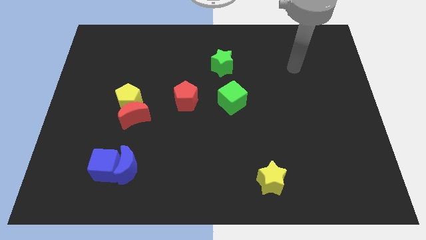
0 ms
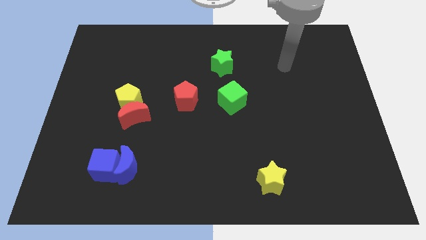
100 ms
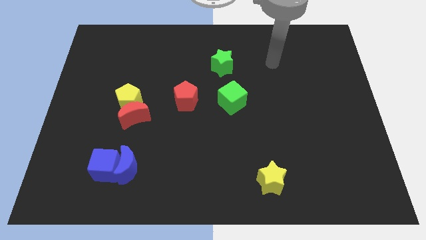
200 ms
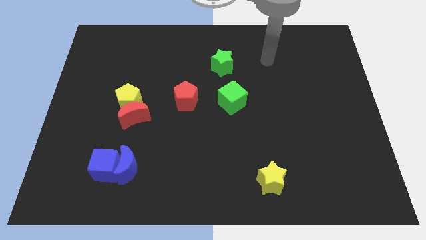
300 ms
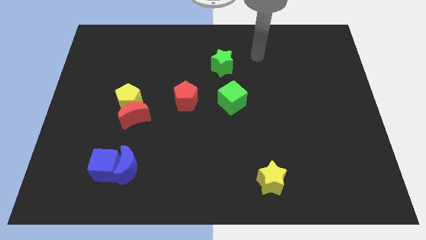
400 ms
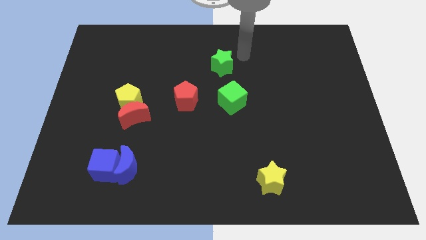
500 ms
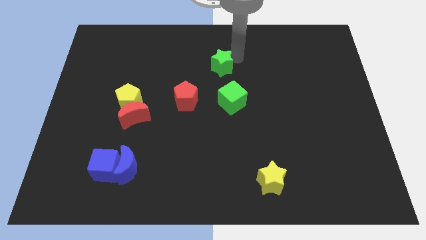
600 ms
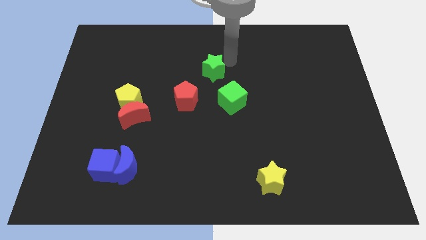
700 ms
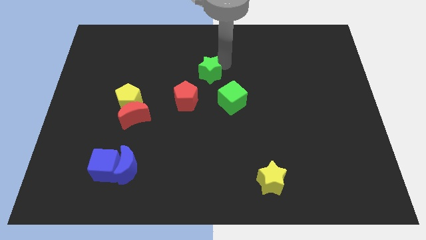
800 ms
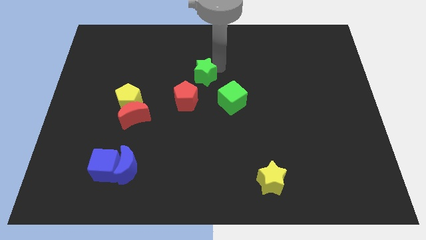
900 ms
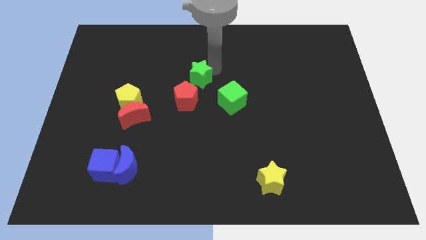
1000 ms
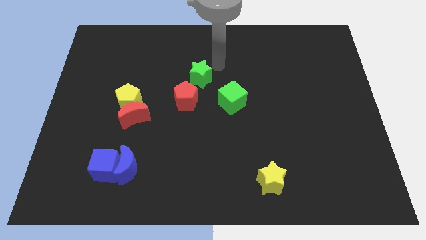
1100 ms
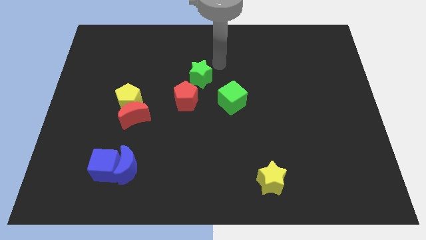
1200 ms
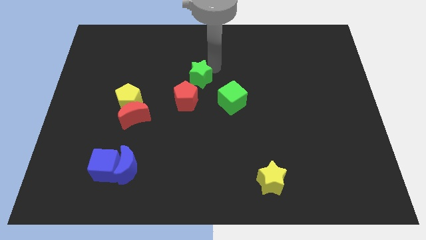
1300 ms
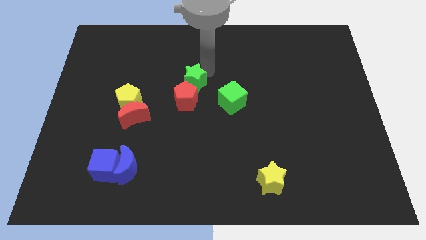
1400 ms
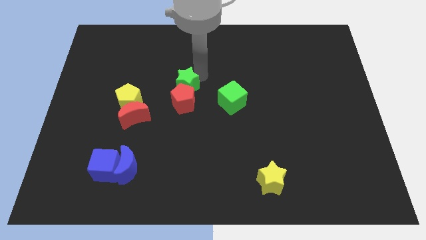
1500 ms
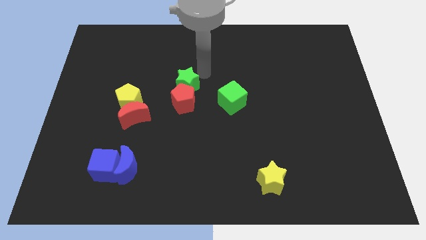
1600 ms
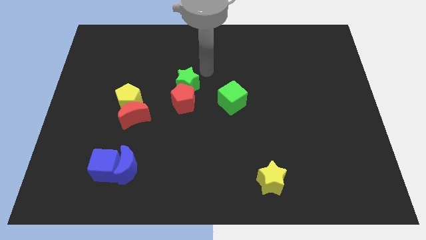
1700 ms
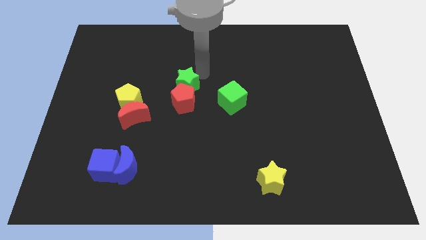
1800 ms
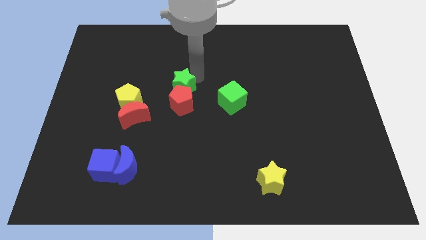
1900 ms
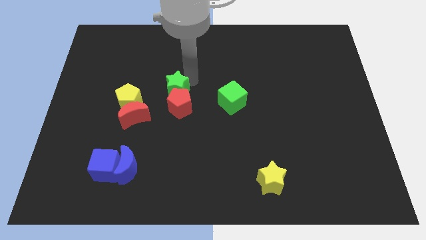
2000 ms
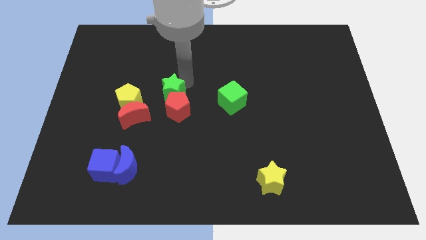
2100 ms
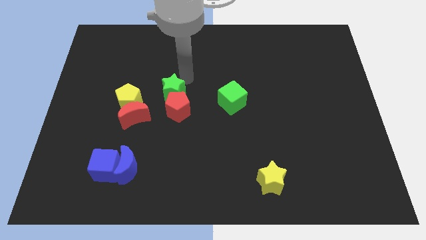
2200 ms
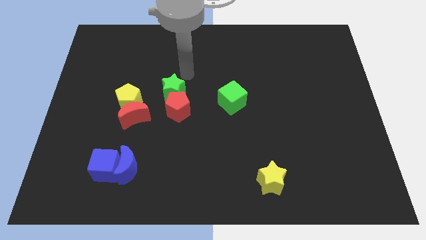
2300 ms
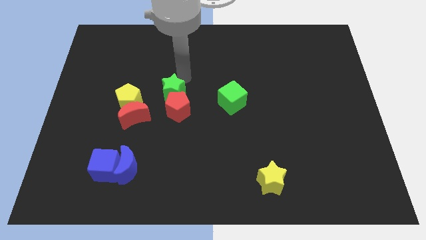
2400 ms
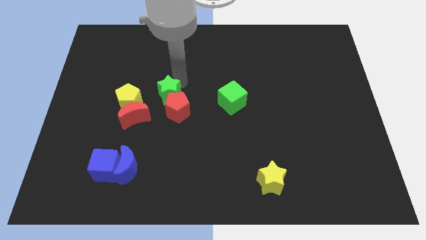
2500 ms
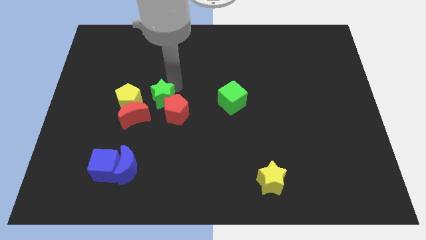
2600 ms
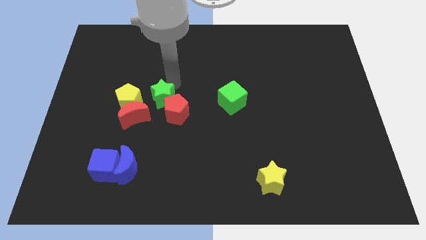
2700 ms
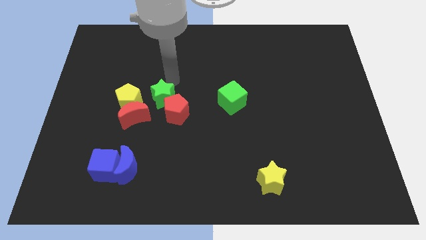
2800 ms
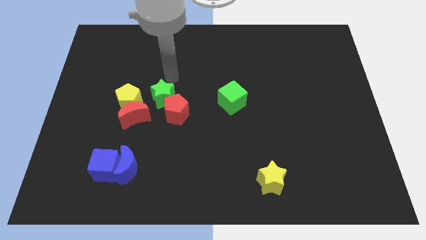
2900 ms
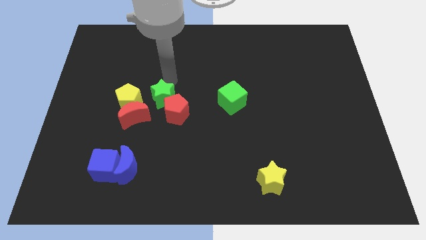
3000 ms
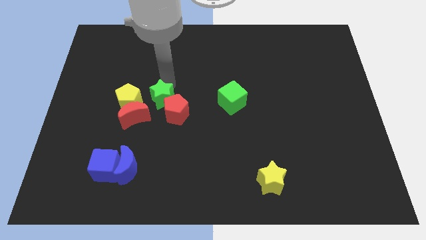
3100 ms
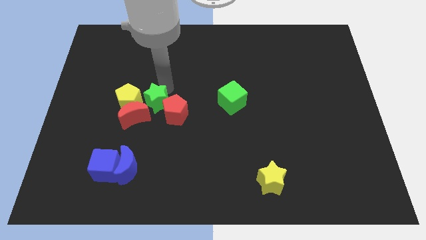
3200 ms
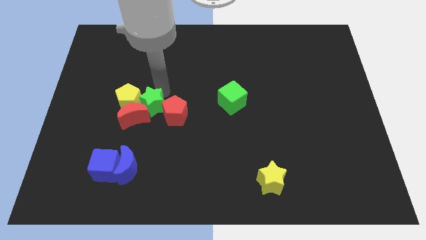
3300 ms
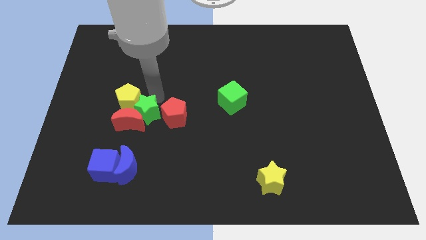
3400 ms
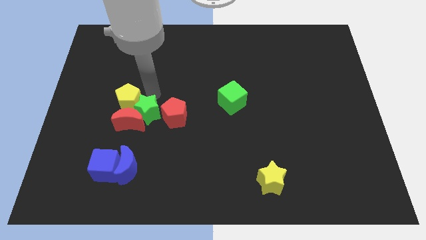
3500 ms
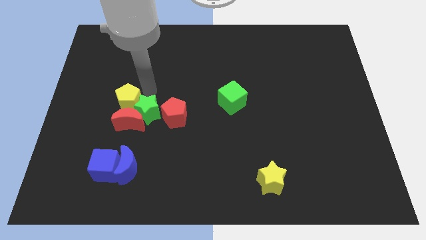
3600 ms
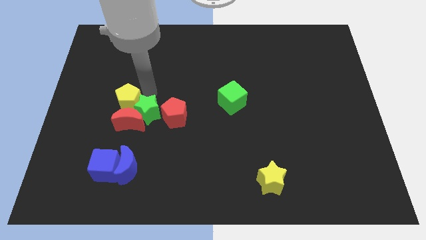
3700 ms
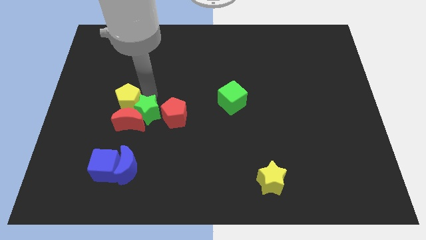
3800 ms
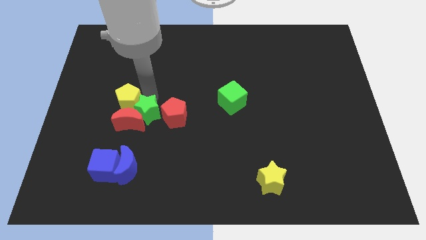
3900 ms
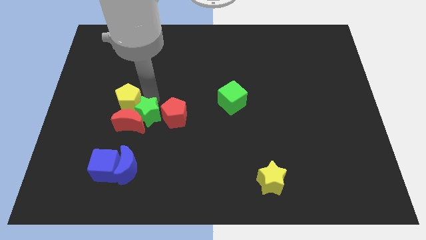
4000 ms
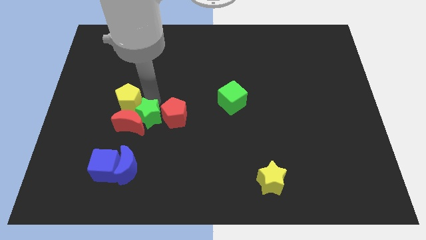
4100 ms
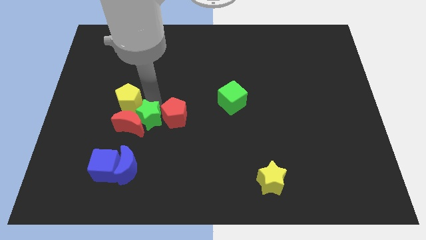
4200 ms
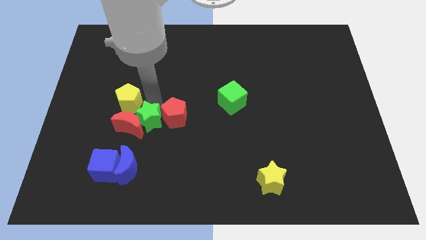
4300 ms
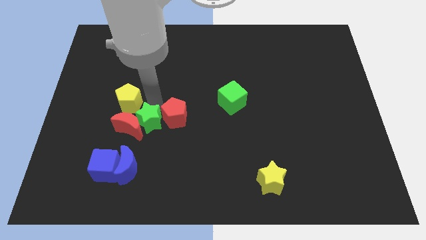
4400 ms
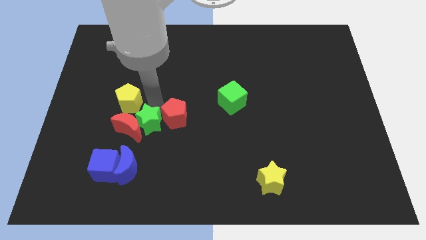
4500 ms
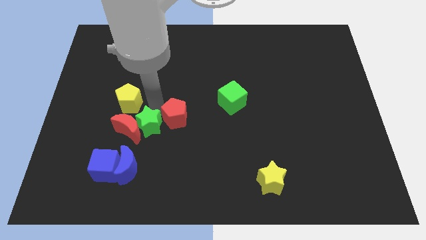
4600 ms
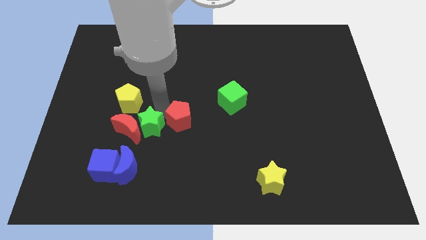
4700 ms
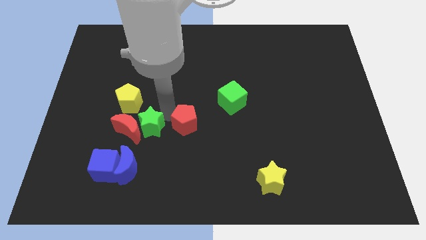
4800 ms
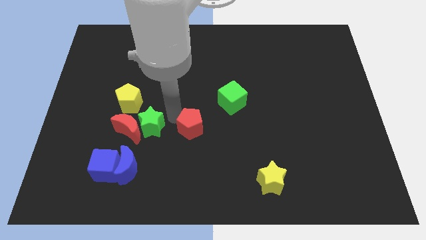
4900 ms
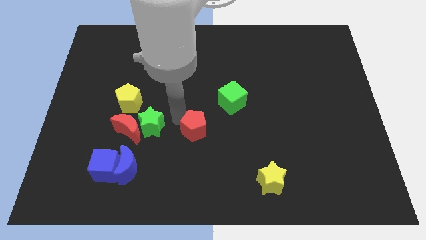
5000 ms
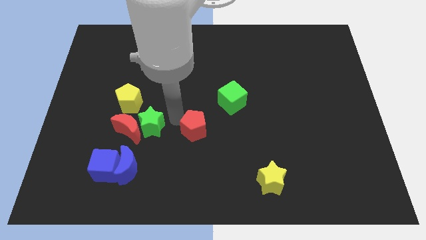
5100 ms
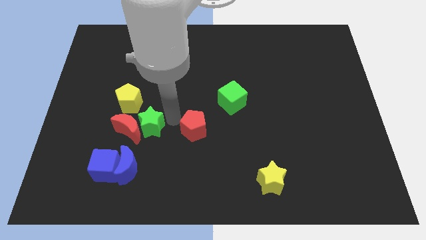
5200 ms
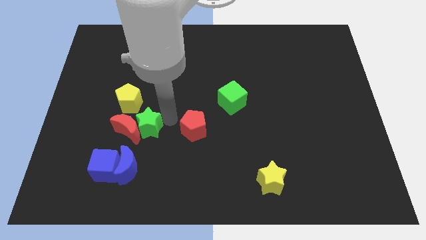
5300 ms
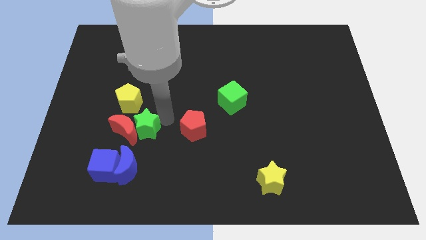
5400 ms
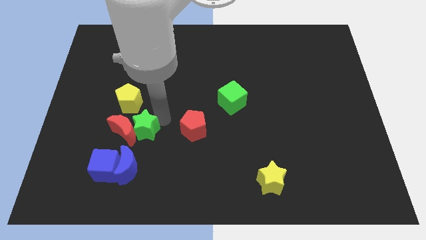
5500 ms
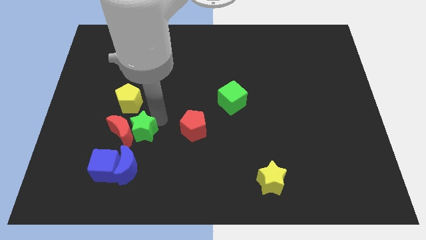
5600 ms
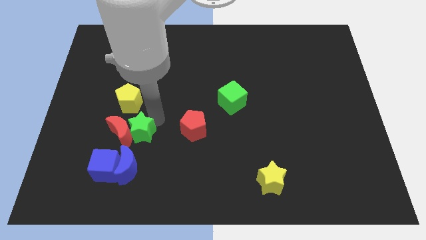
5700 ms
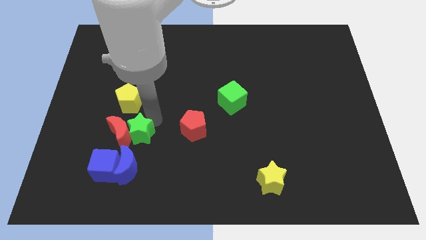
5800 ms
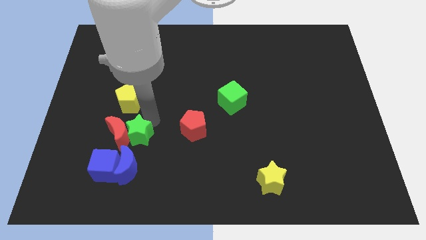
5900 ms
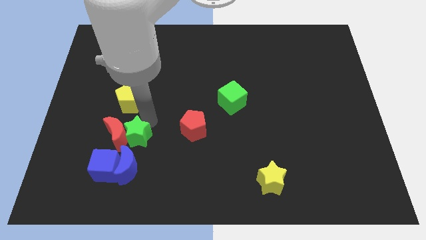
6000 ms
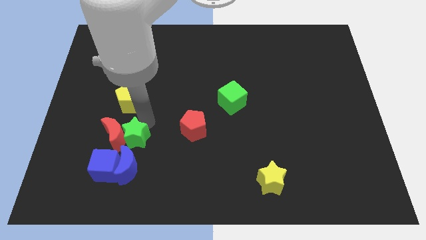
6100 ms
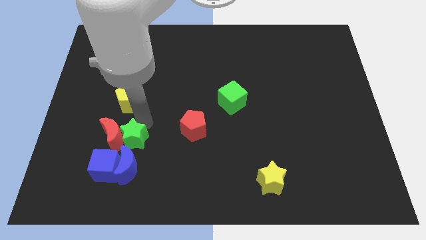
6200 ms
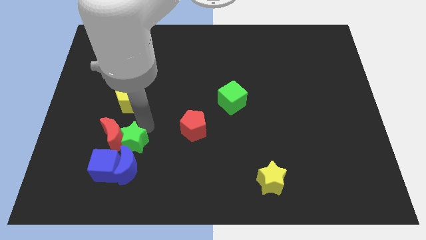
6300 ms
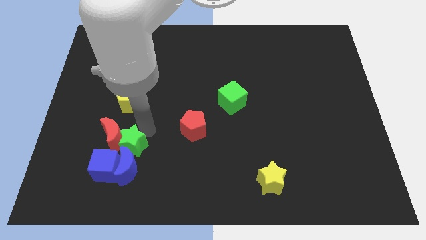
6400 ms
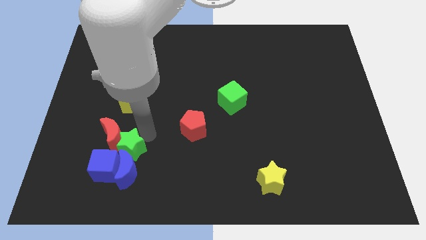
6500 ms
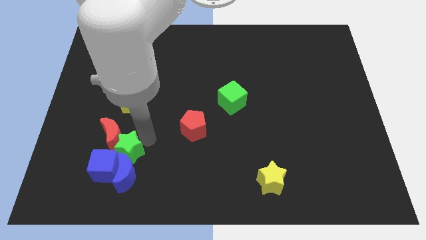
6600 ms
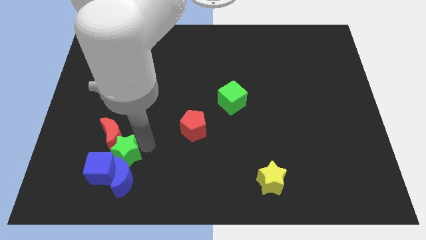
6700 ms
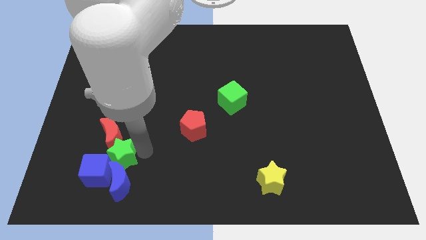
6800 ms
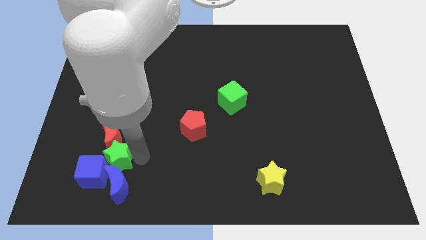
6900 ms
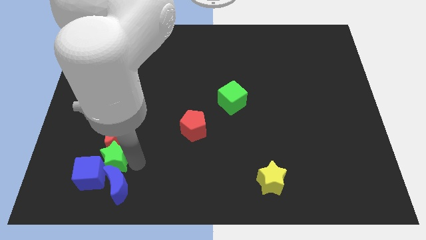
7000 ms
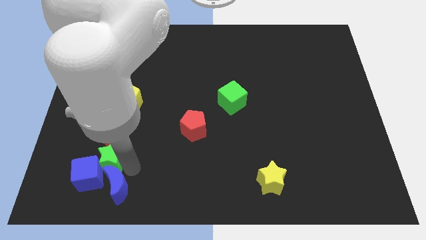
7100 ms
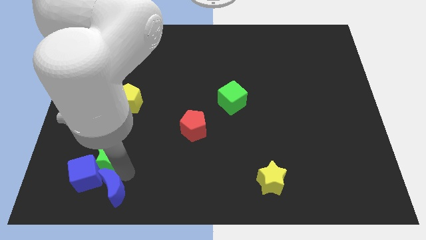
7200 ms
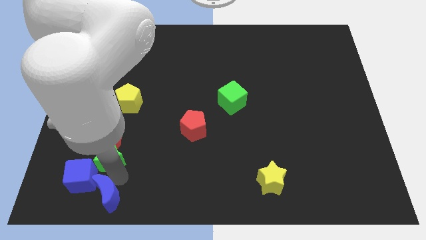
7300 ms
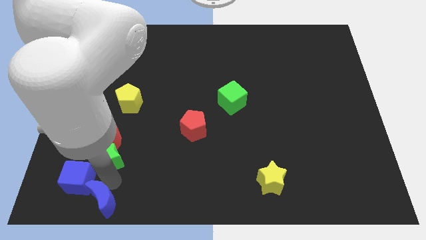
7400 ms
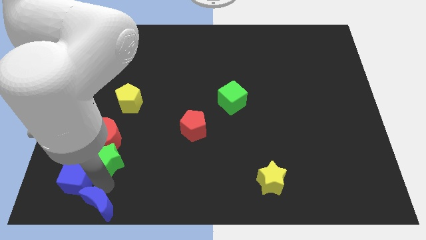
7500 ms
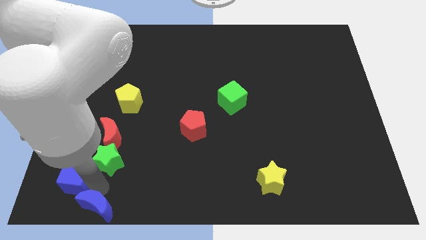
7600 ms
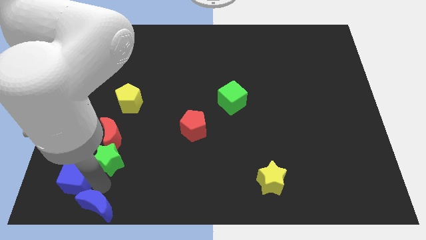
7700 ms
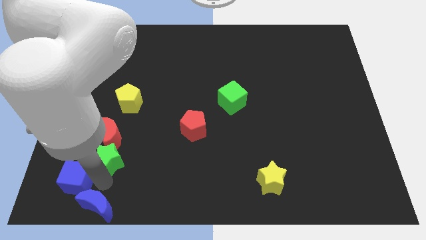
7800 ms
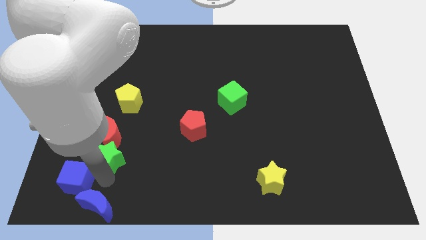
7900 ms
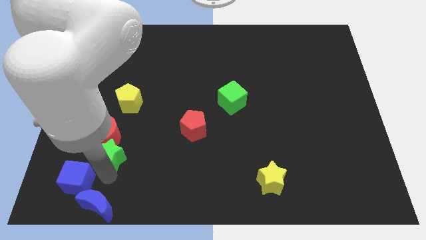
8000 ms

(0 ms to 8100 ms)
slide the green star diagonally down and to the left of the red moon

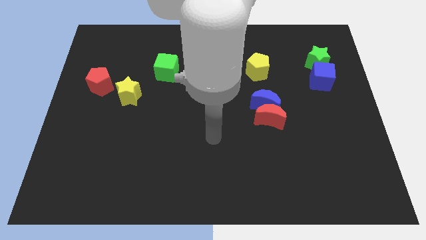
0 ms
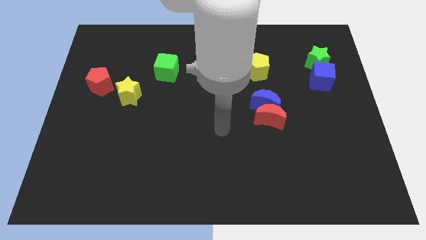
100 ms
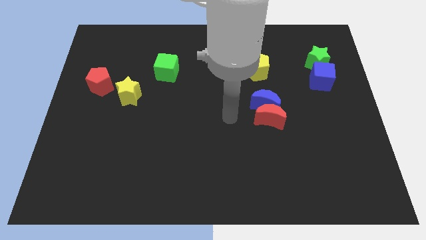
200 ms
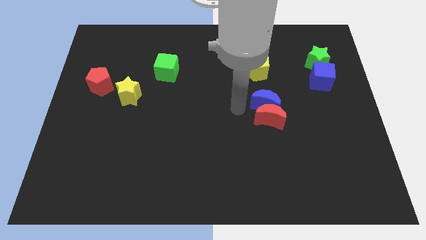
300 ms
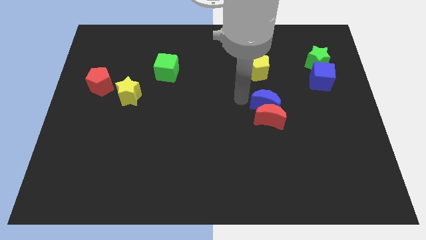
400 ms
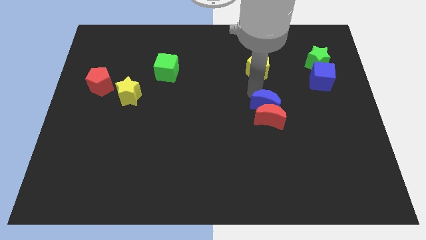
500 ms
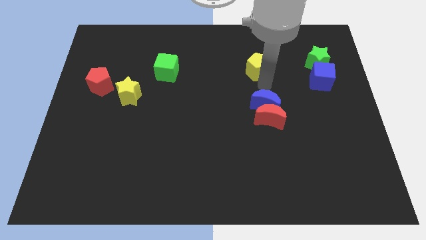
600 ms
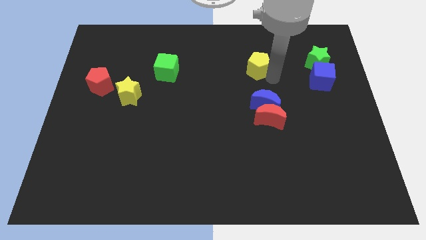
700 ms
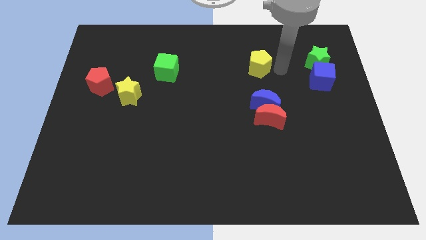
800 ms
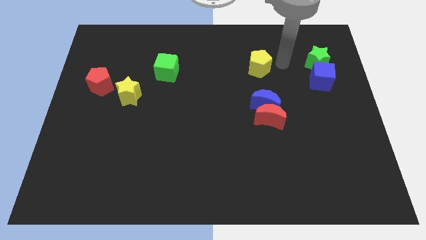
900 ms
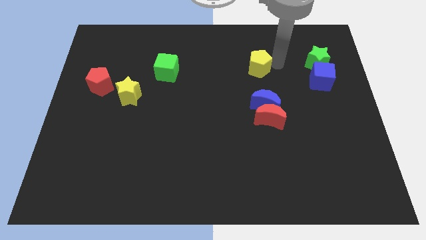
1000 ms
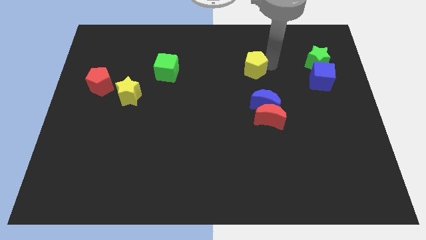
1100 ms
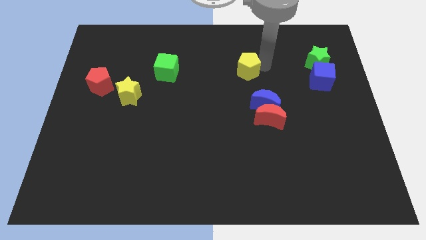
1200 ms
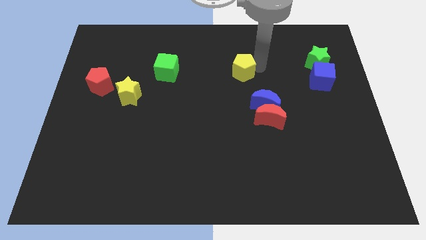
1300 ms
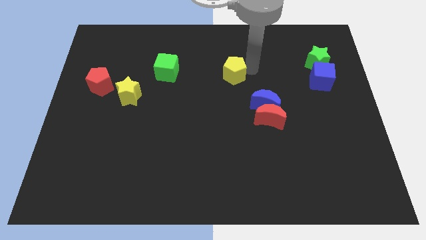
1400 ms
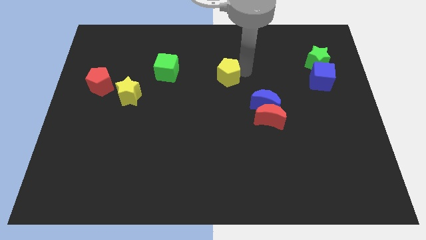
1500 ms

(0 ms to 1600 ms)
move the yellow pentagon to the right of the green cube
